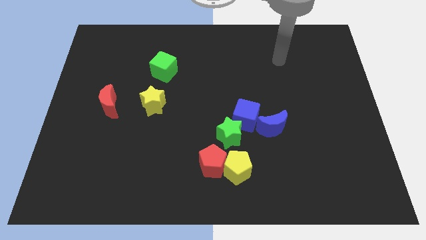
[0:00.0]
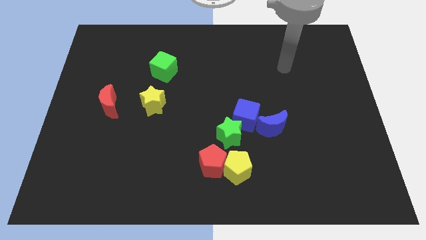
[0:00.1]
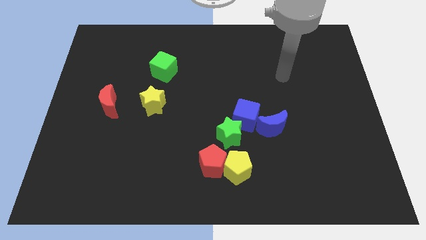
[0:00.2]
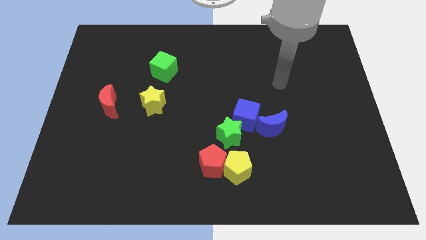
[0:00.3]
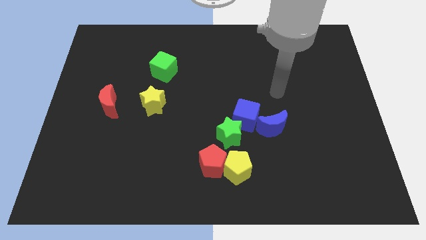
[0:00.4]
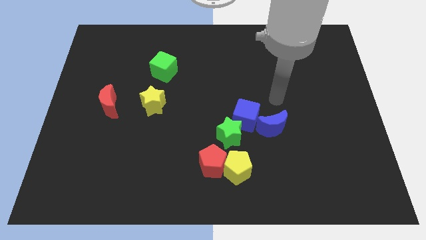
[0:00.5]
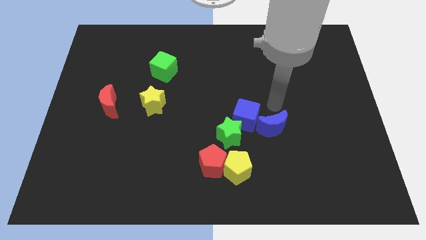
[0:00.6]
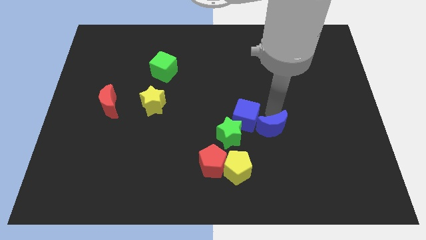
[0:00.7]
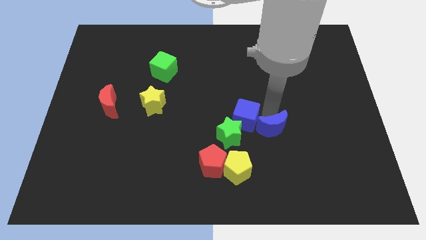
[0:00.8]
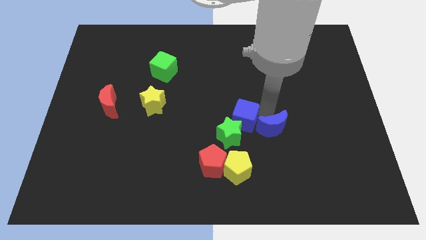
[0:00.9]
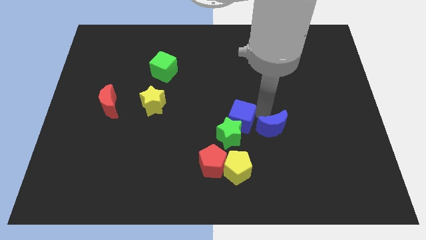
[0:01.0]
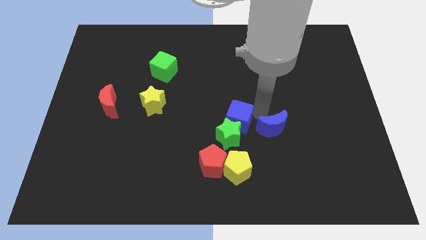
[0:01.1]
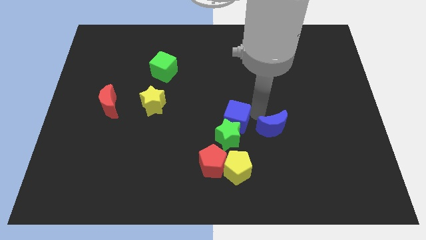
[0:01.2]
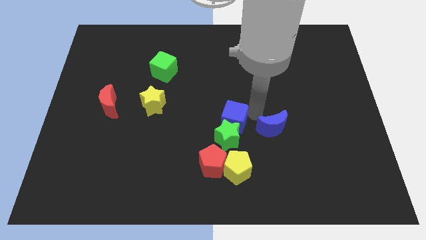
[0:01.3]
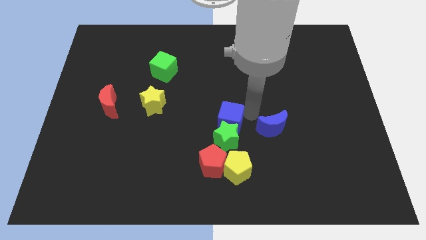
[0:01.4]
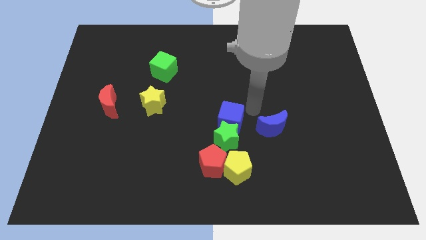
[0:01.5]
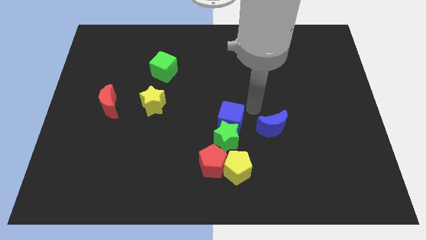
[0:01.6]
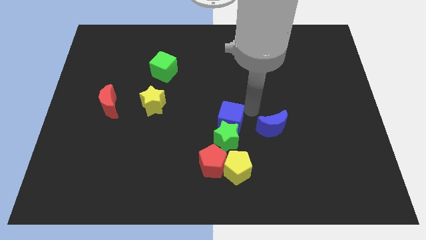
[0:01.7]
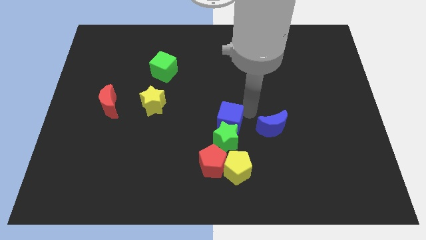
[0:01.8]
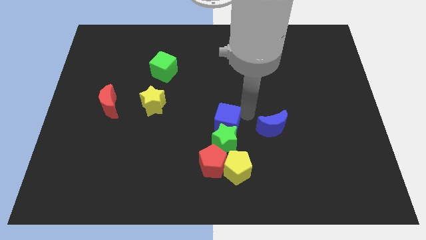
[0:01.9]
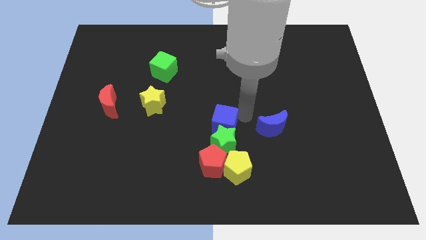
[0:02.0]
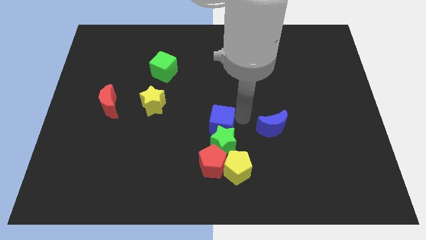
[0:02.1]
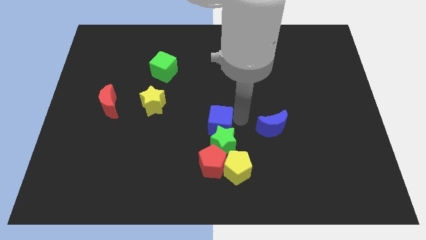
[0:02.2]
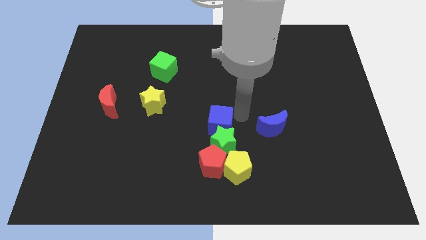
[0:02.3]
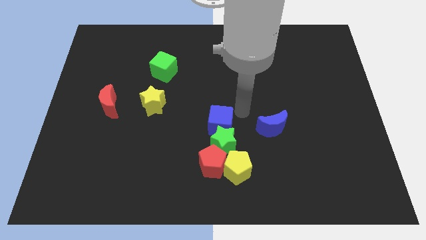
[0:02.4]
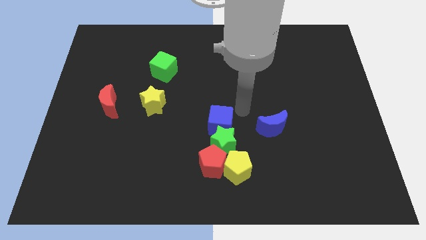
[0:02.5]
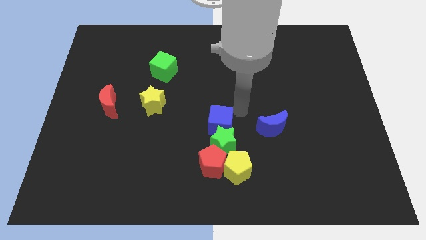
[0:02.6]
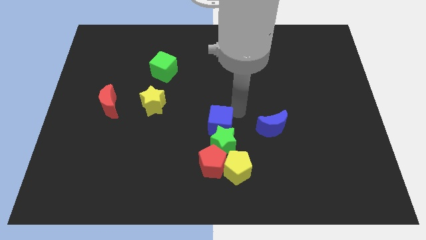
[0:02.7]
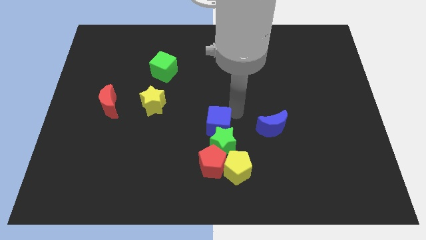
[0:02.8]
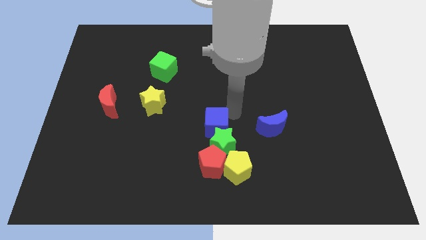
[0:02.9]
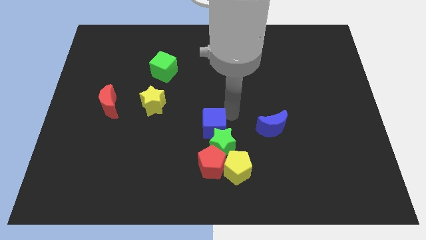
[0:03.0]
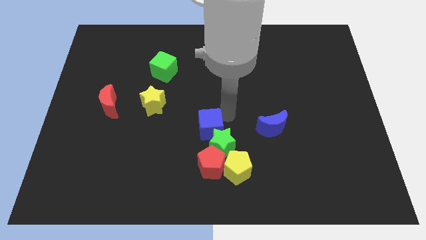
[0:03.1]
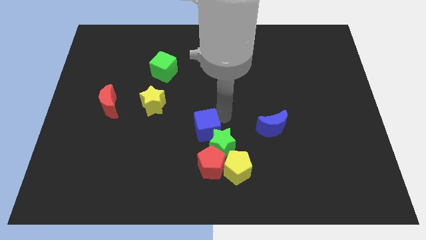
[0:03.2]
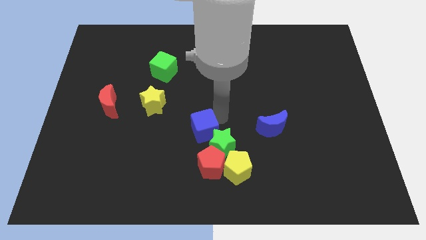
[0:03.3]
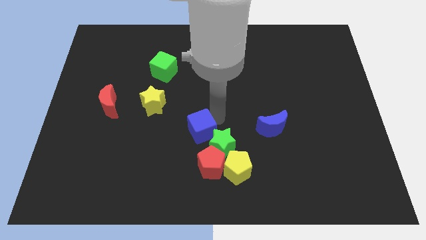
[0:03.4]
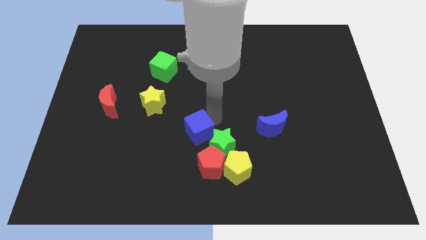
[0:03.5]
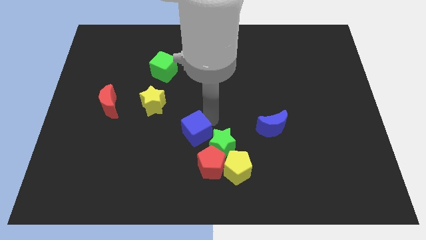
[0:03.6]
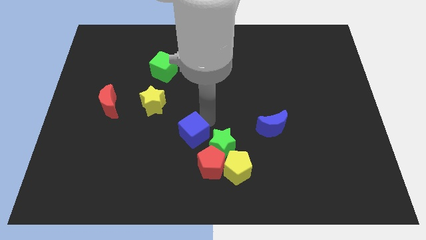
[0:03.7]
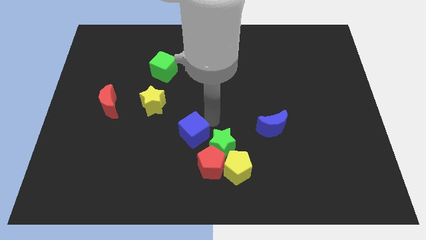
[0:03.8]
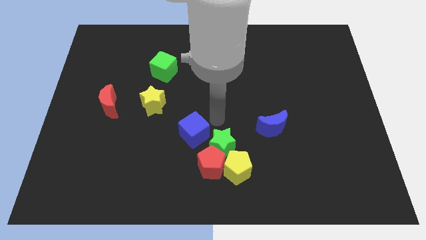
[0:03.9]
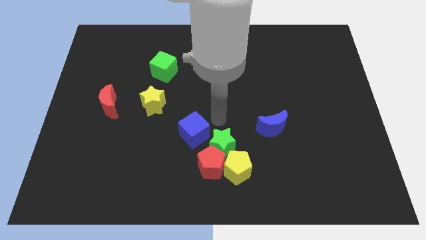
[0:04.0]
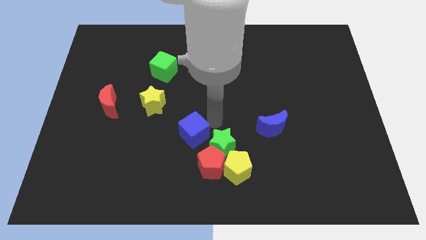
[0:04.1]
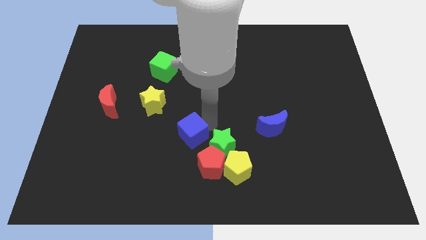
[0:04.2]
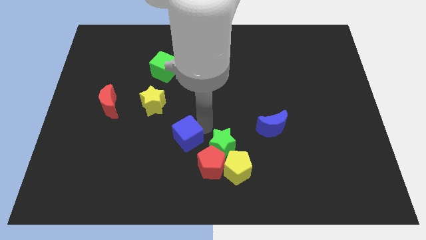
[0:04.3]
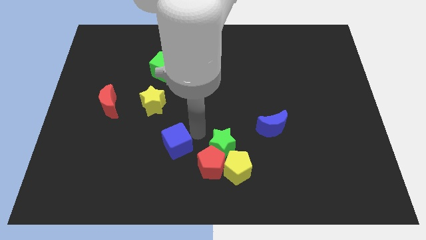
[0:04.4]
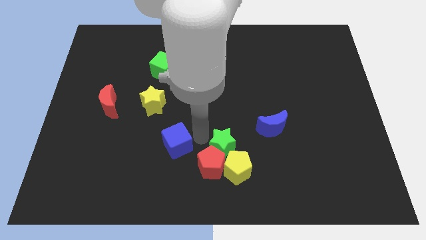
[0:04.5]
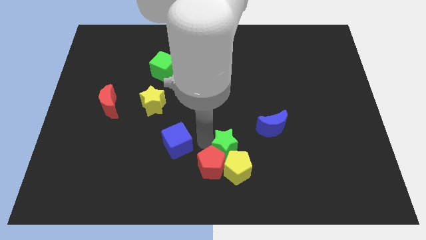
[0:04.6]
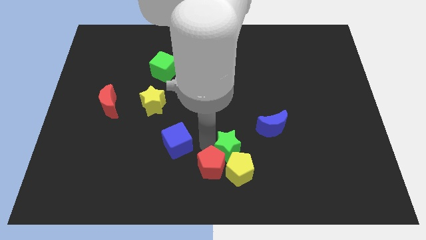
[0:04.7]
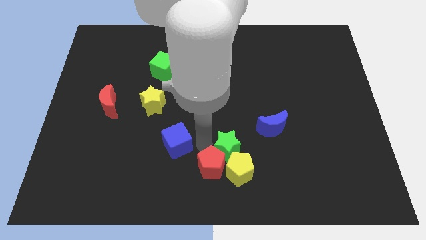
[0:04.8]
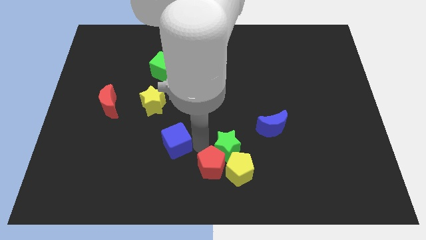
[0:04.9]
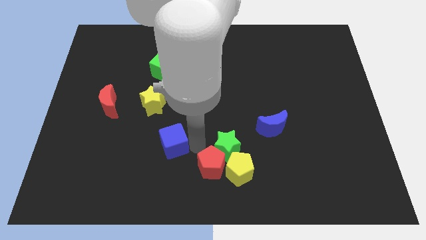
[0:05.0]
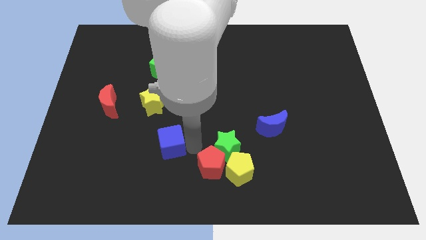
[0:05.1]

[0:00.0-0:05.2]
put the blue cube below the yellow star

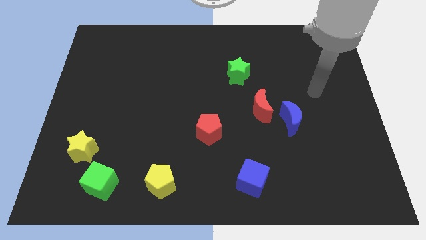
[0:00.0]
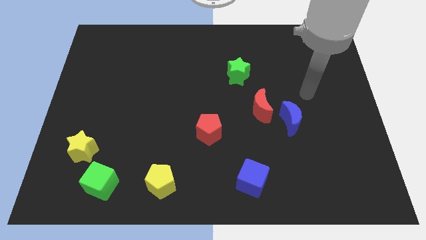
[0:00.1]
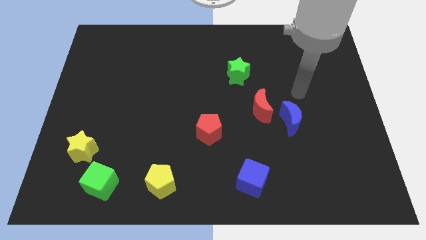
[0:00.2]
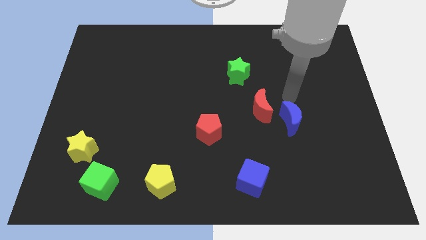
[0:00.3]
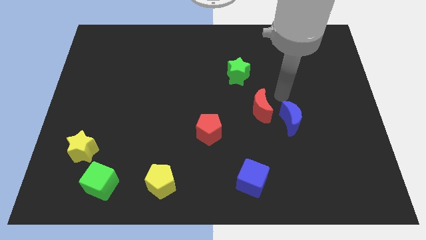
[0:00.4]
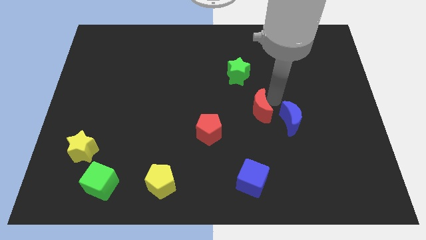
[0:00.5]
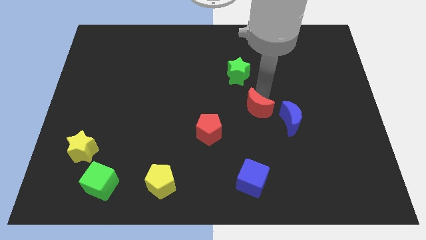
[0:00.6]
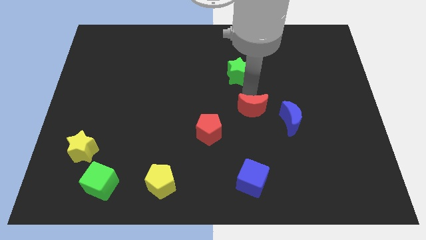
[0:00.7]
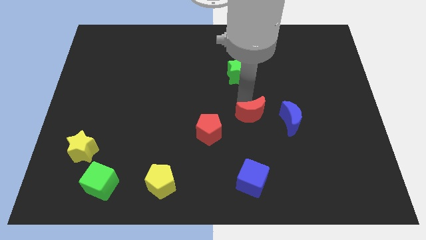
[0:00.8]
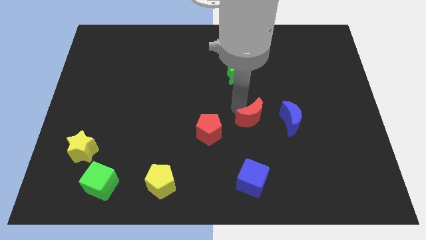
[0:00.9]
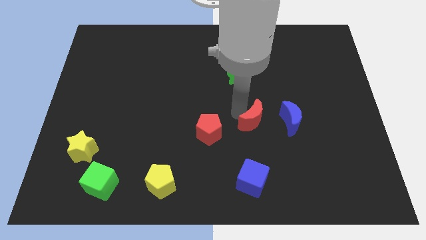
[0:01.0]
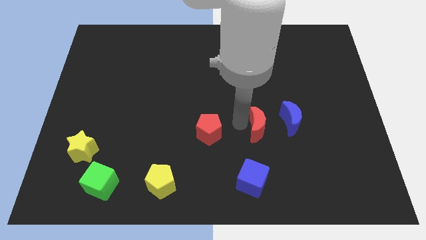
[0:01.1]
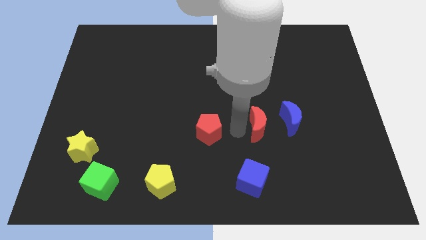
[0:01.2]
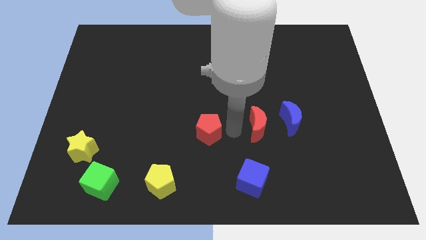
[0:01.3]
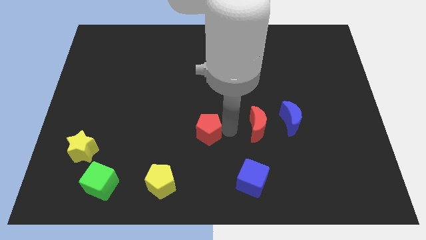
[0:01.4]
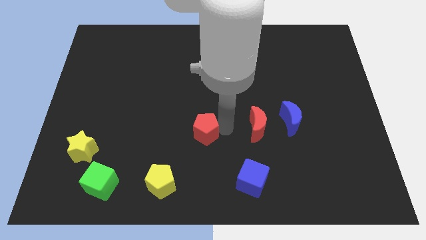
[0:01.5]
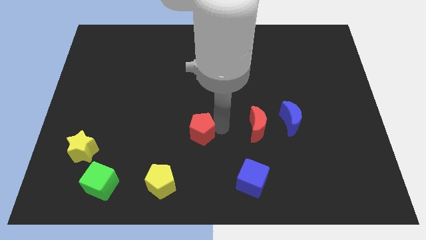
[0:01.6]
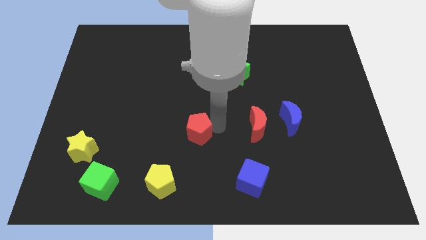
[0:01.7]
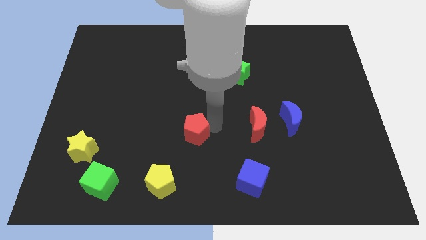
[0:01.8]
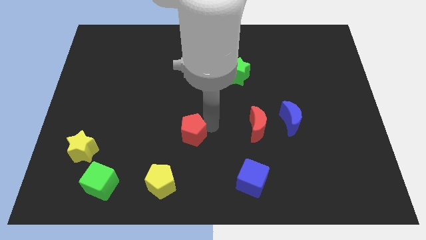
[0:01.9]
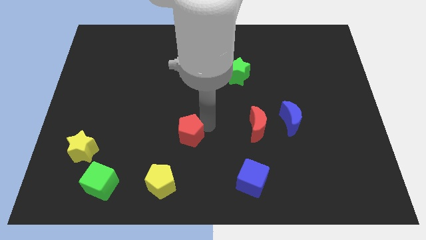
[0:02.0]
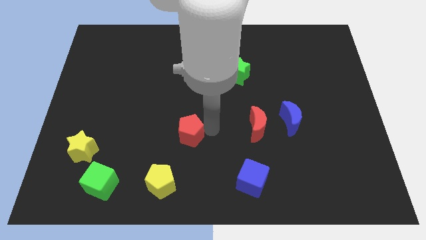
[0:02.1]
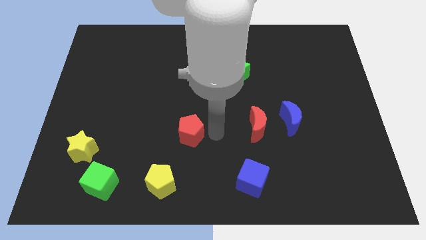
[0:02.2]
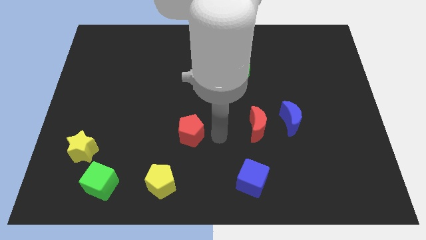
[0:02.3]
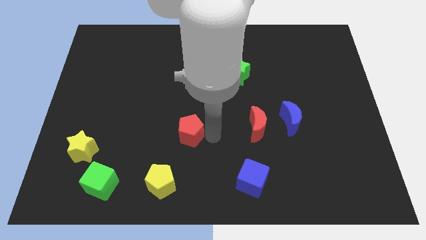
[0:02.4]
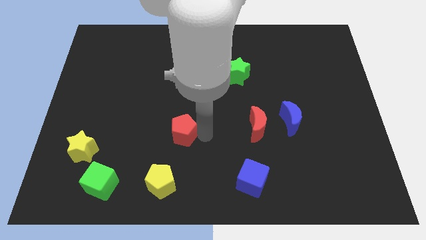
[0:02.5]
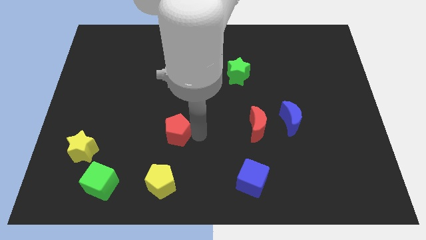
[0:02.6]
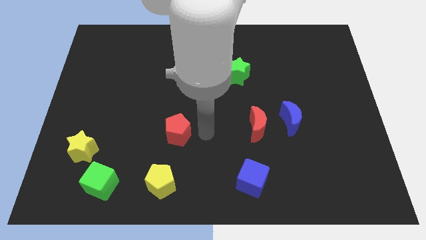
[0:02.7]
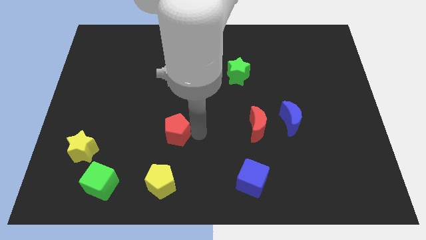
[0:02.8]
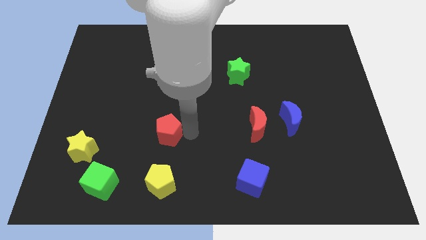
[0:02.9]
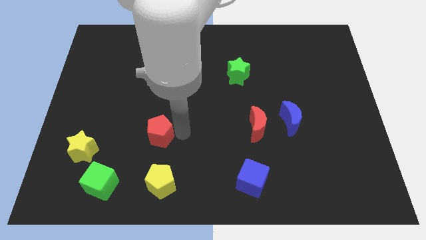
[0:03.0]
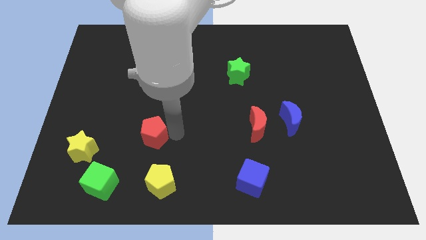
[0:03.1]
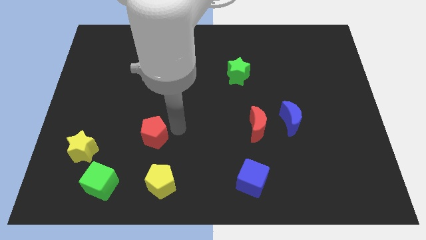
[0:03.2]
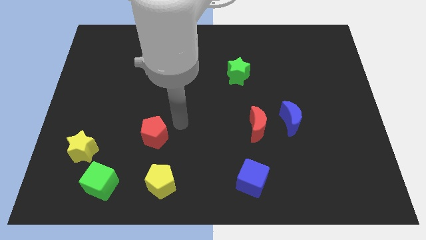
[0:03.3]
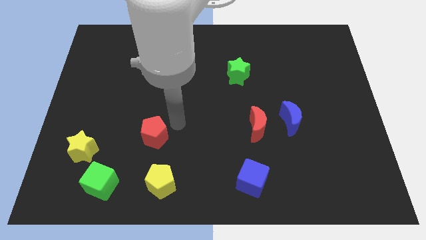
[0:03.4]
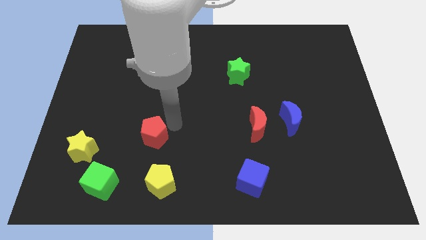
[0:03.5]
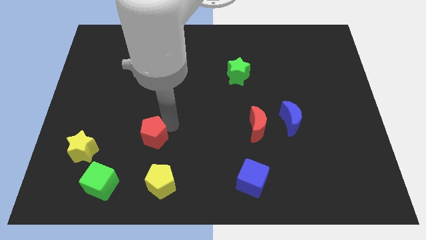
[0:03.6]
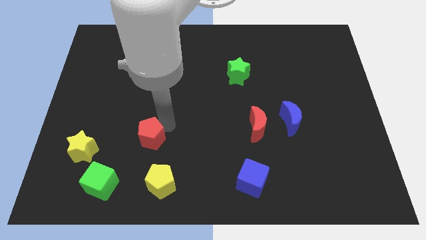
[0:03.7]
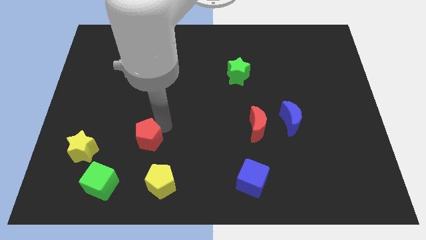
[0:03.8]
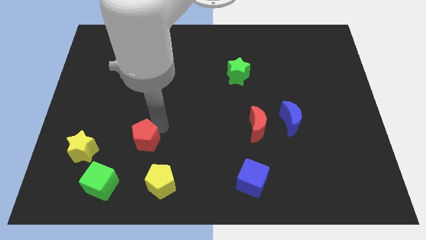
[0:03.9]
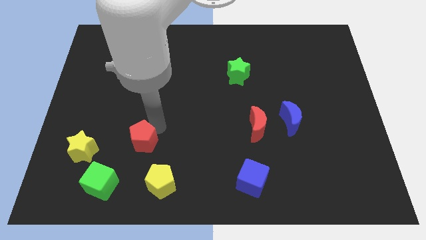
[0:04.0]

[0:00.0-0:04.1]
slide the red pentagon diagonally up and to the right of the green cube
